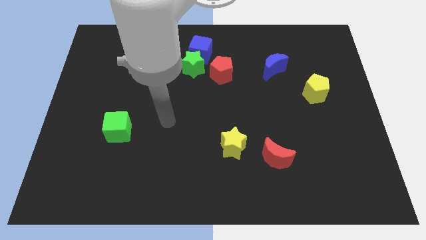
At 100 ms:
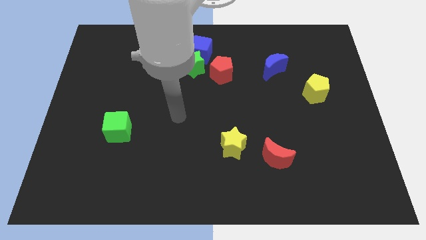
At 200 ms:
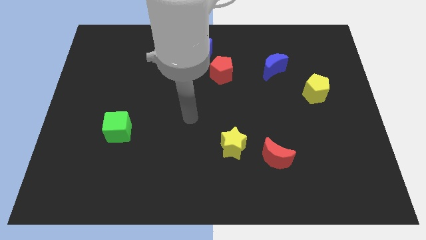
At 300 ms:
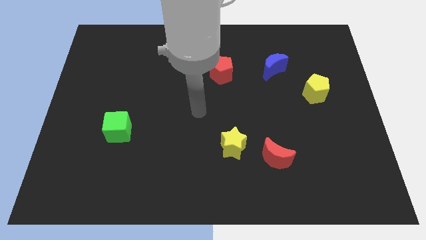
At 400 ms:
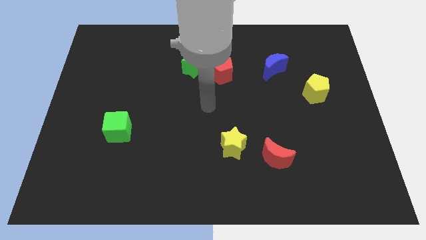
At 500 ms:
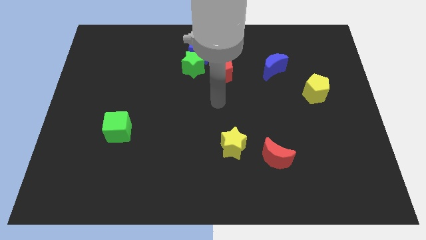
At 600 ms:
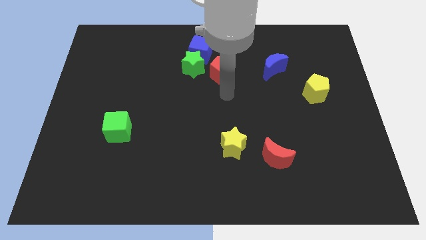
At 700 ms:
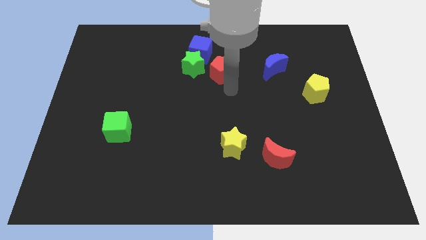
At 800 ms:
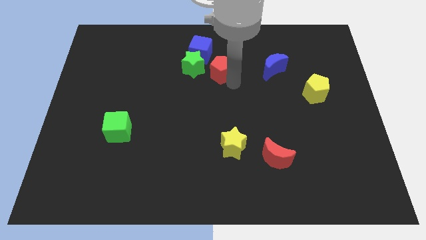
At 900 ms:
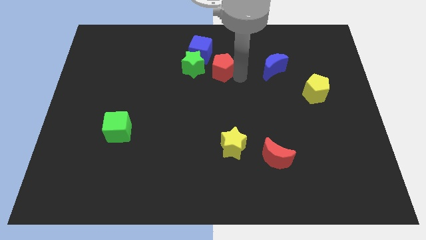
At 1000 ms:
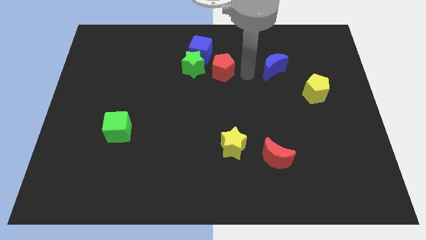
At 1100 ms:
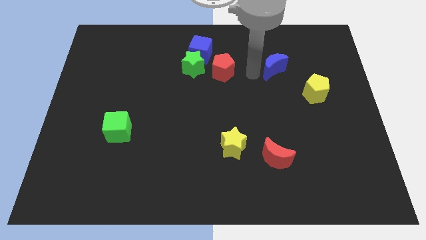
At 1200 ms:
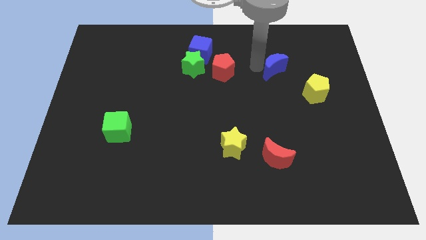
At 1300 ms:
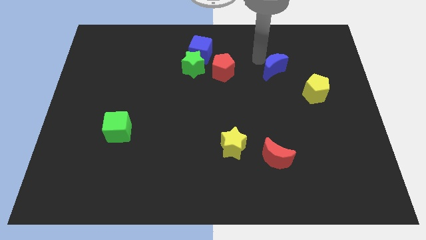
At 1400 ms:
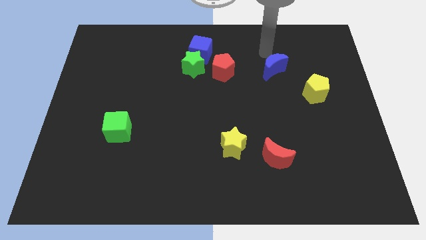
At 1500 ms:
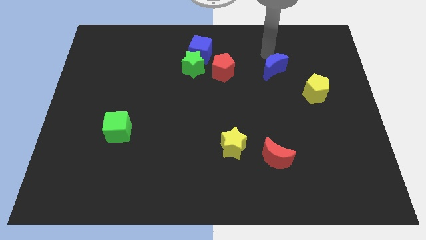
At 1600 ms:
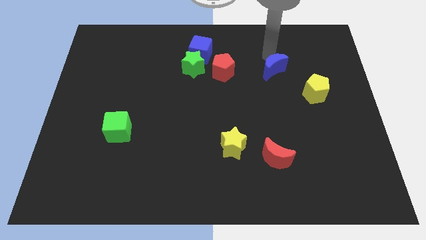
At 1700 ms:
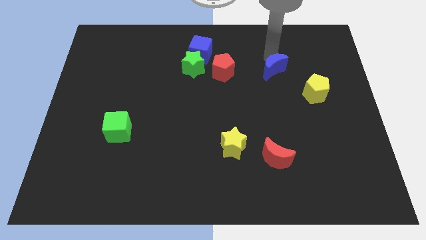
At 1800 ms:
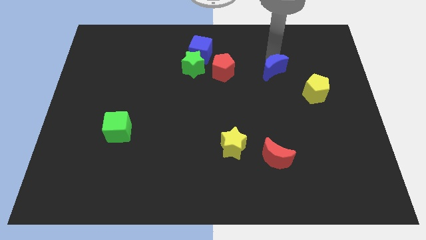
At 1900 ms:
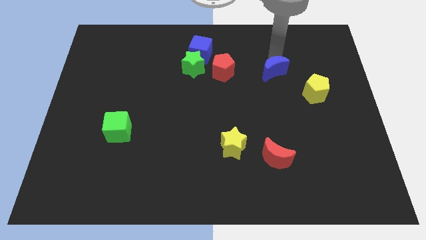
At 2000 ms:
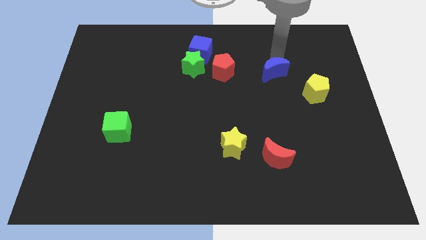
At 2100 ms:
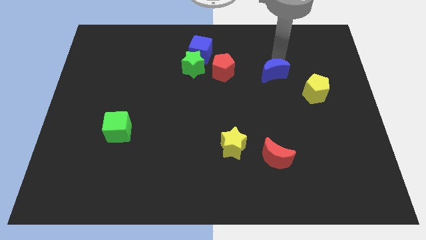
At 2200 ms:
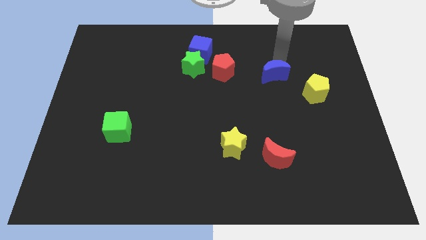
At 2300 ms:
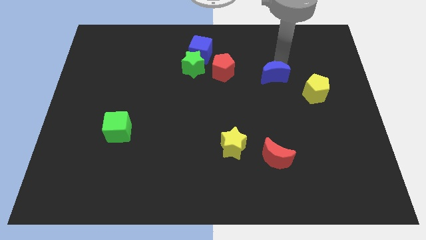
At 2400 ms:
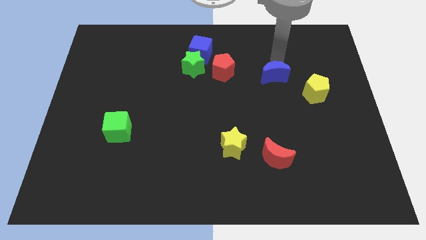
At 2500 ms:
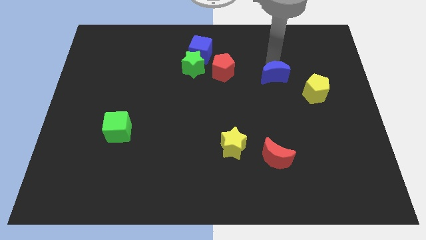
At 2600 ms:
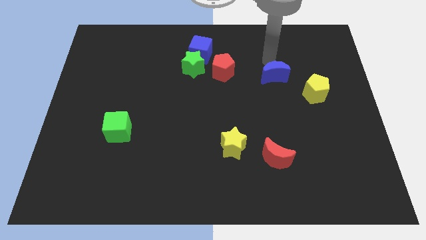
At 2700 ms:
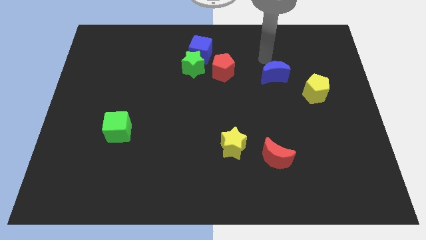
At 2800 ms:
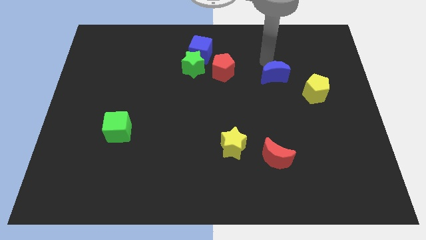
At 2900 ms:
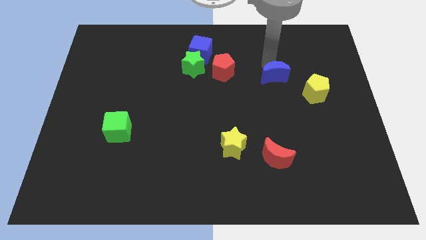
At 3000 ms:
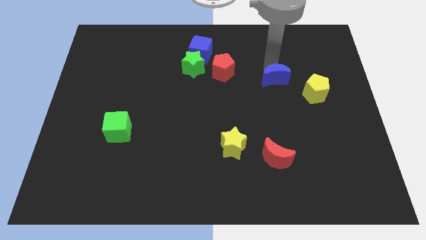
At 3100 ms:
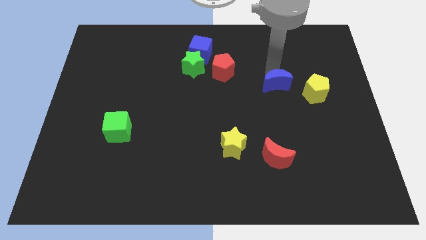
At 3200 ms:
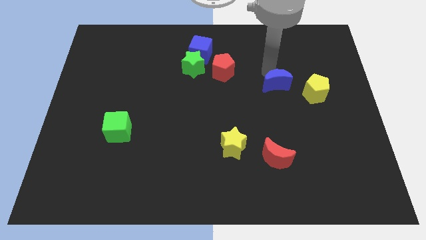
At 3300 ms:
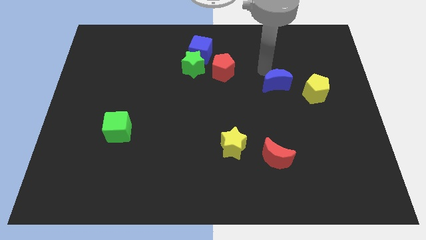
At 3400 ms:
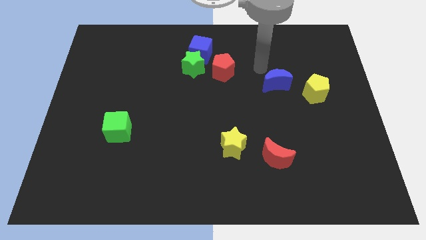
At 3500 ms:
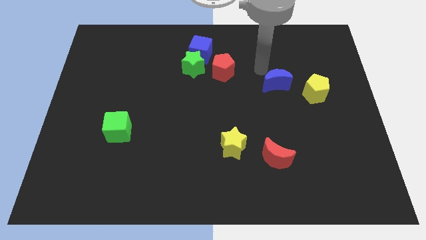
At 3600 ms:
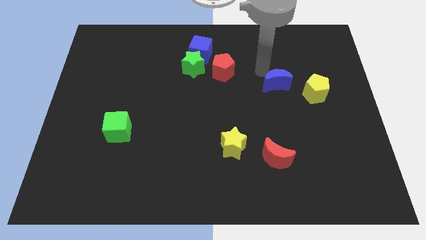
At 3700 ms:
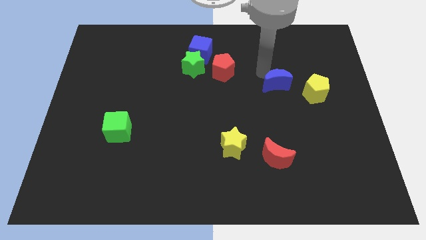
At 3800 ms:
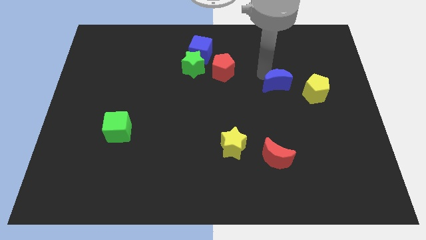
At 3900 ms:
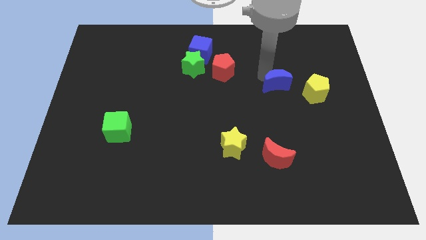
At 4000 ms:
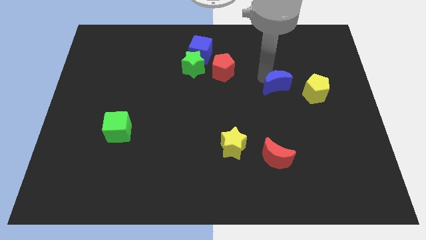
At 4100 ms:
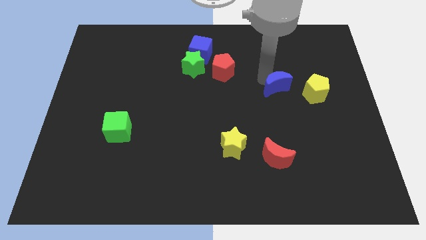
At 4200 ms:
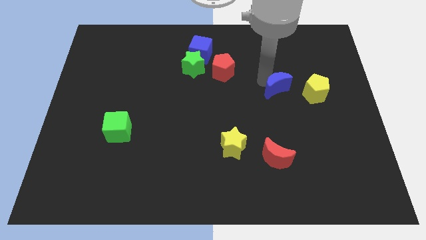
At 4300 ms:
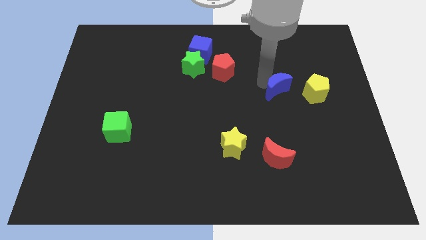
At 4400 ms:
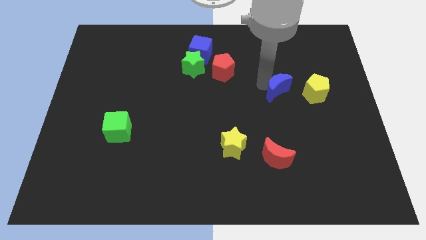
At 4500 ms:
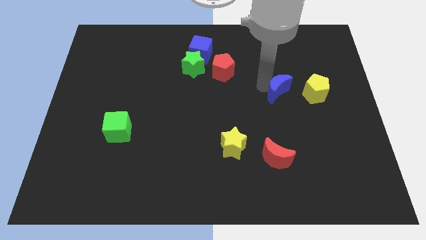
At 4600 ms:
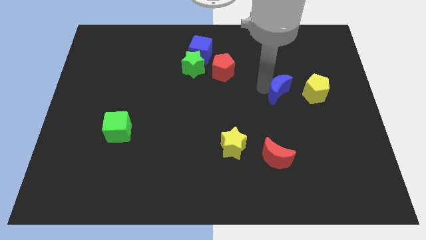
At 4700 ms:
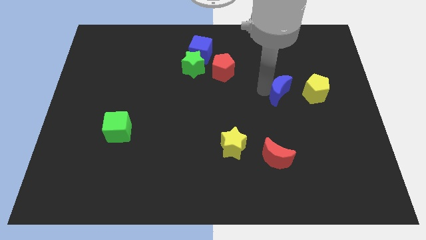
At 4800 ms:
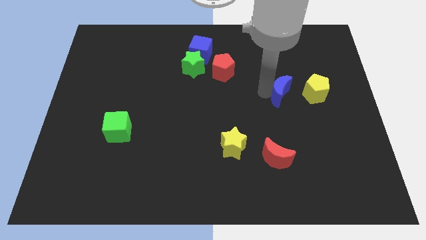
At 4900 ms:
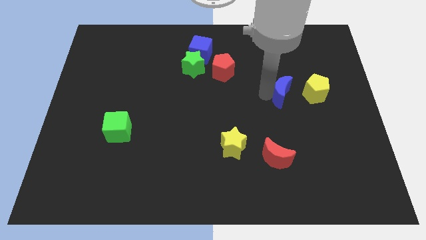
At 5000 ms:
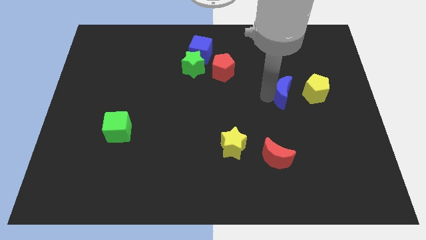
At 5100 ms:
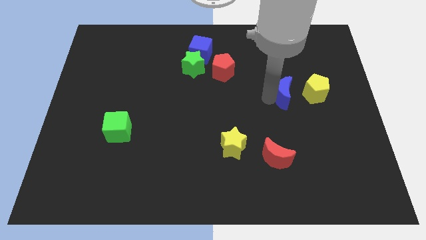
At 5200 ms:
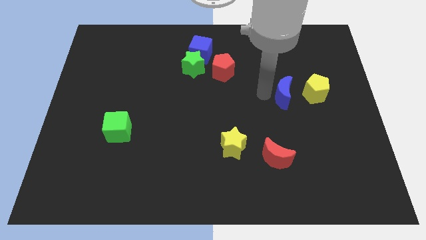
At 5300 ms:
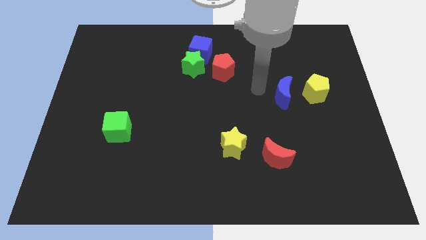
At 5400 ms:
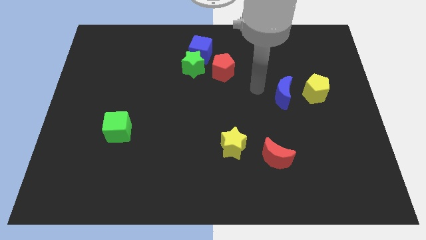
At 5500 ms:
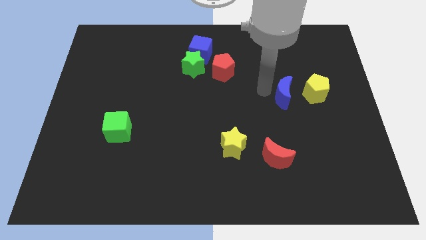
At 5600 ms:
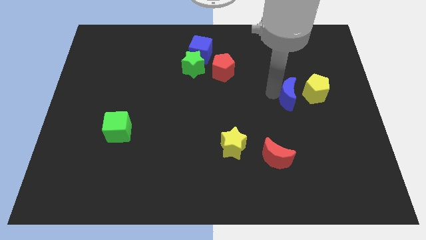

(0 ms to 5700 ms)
move the blue moon down and right diagonally somewhat

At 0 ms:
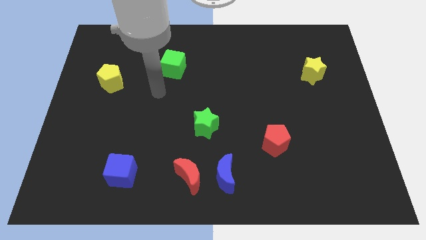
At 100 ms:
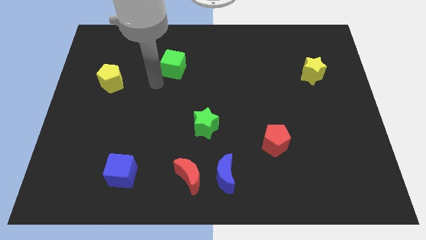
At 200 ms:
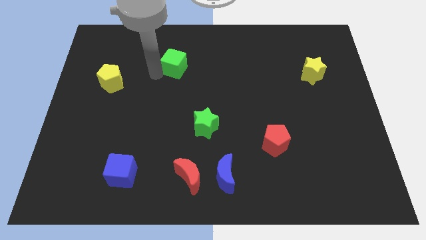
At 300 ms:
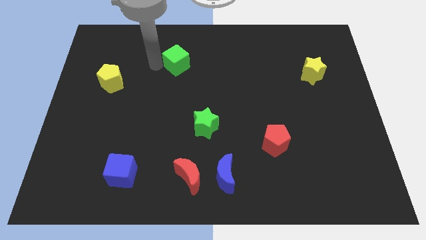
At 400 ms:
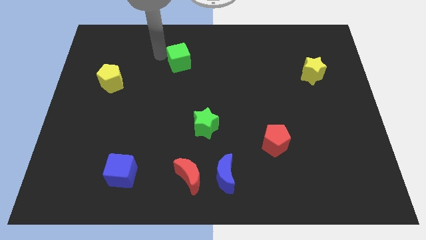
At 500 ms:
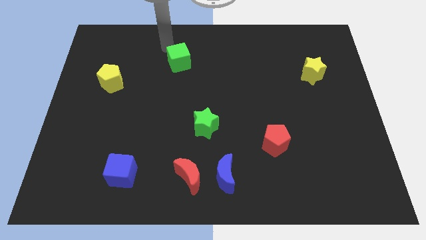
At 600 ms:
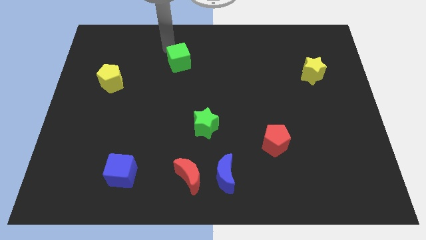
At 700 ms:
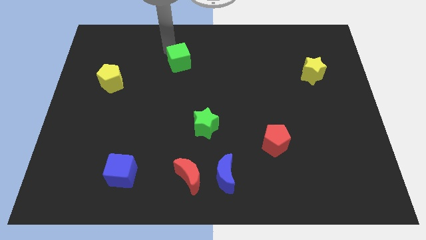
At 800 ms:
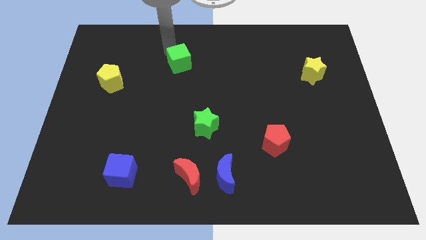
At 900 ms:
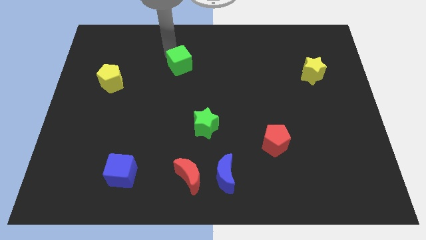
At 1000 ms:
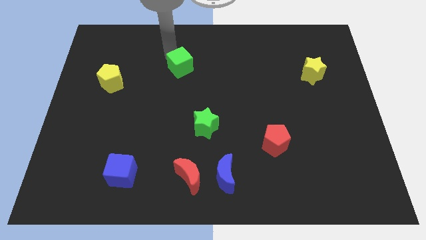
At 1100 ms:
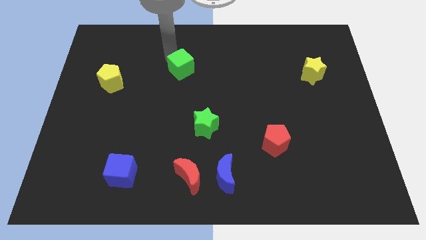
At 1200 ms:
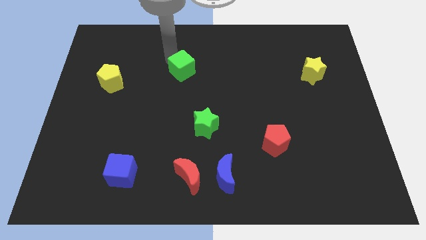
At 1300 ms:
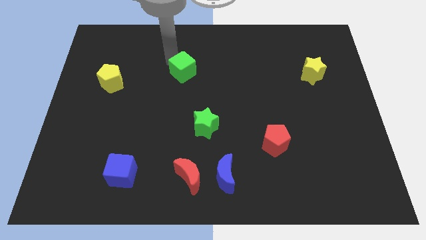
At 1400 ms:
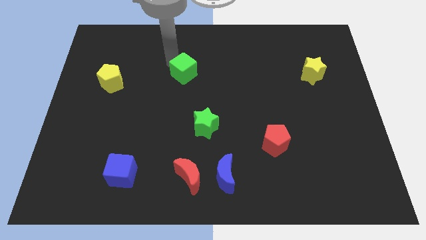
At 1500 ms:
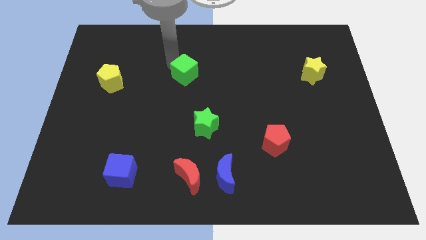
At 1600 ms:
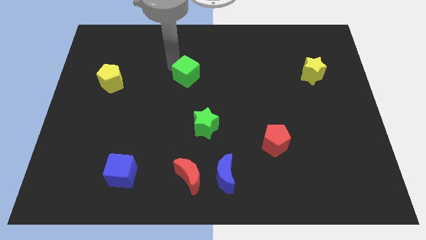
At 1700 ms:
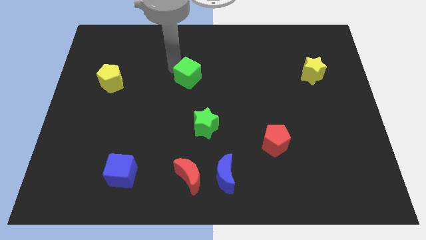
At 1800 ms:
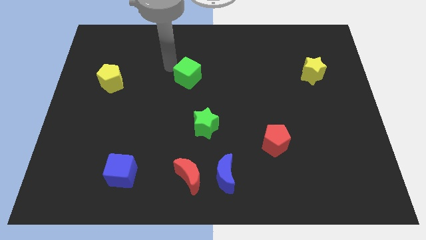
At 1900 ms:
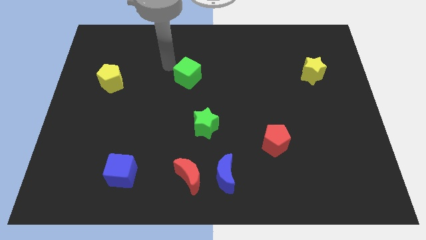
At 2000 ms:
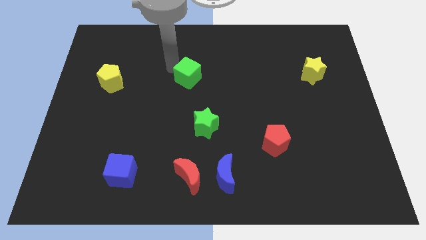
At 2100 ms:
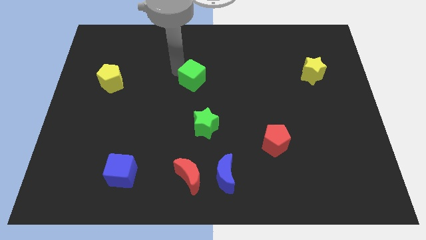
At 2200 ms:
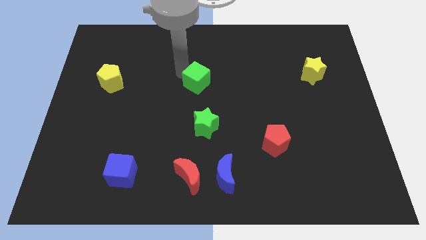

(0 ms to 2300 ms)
move the green cube down and right diagonally a bit
